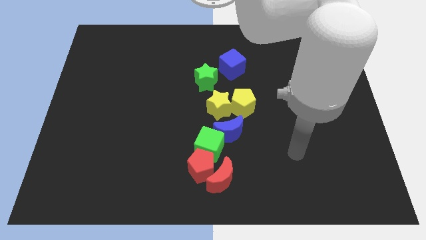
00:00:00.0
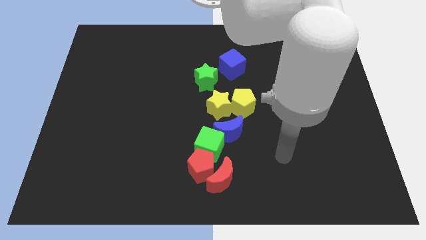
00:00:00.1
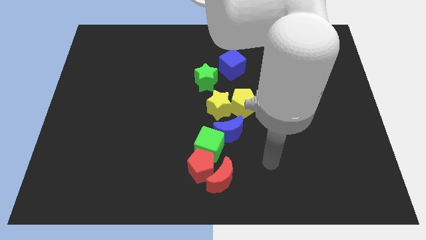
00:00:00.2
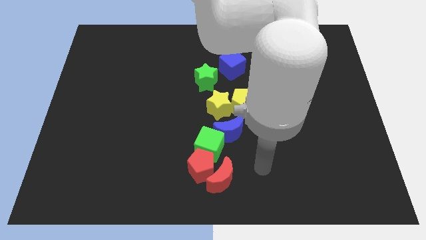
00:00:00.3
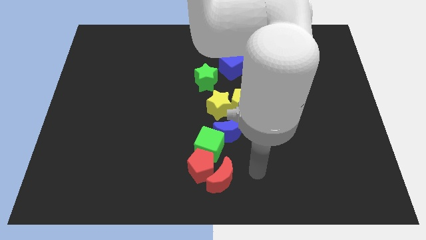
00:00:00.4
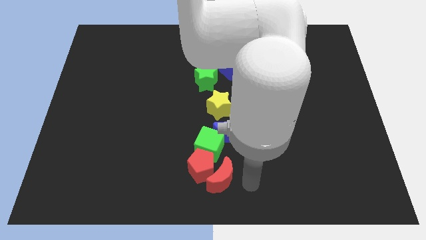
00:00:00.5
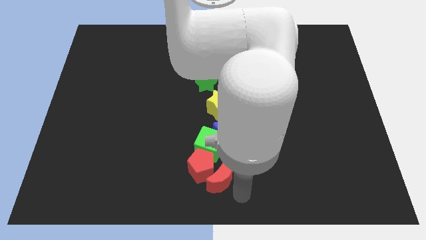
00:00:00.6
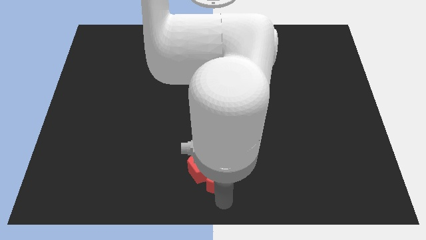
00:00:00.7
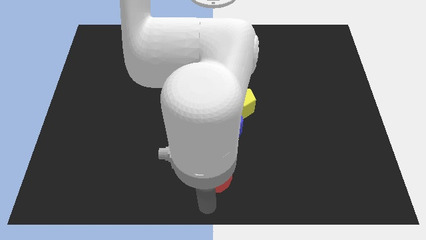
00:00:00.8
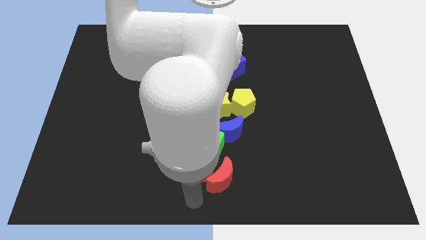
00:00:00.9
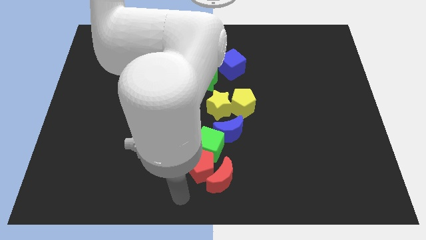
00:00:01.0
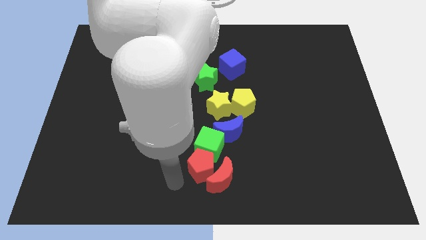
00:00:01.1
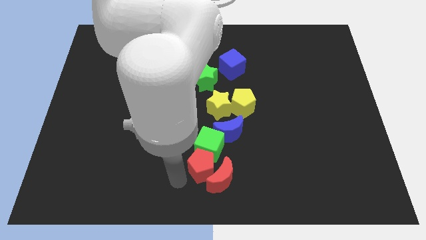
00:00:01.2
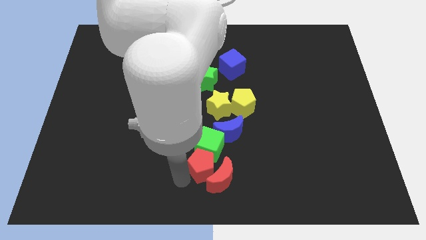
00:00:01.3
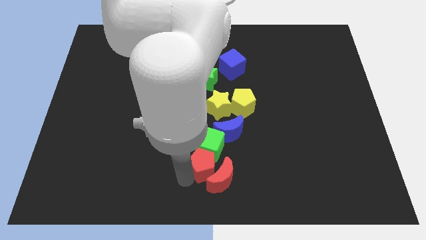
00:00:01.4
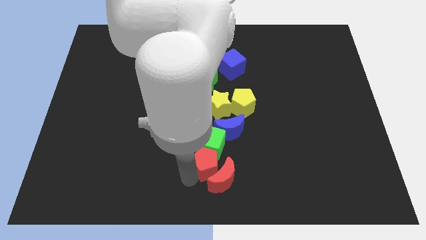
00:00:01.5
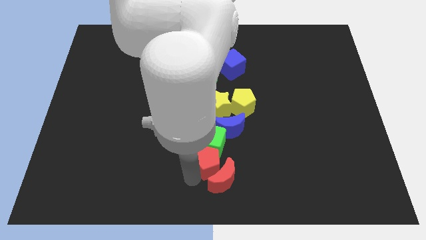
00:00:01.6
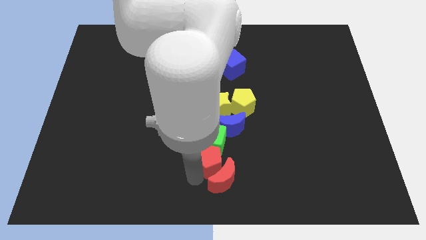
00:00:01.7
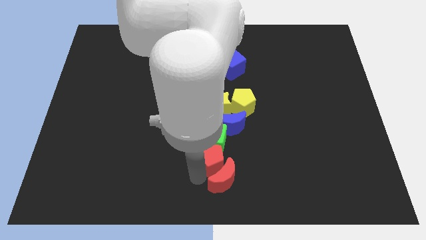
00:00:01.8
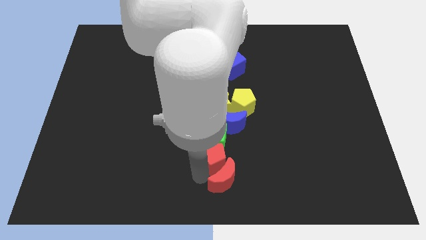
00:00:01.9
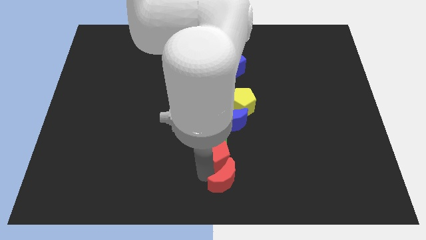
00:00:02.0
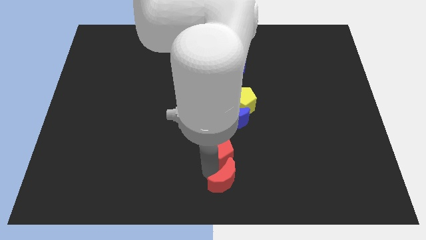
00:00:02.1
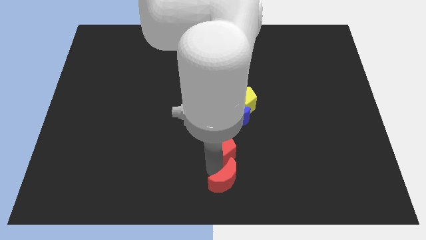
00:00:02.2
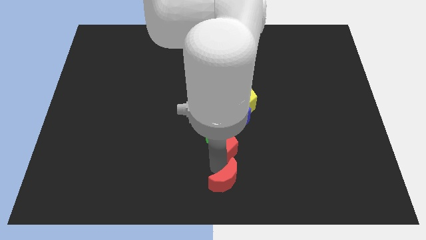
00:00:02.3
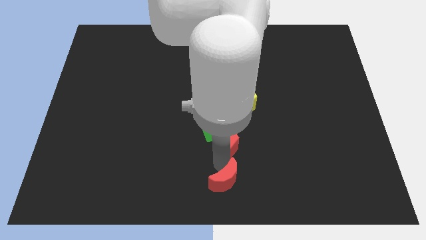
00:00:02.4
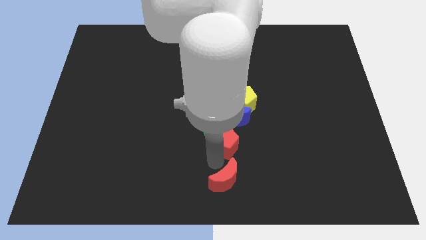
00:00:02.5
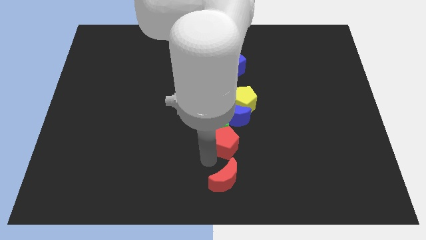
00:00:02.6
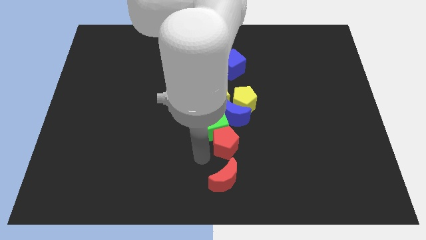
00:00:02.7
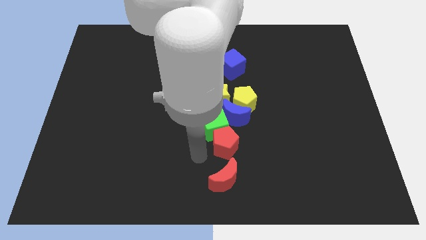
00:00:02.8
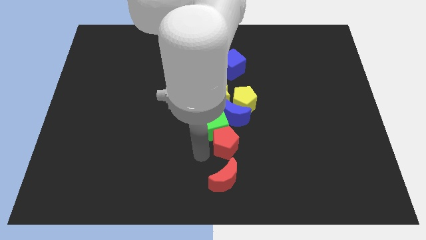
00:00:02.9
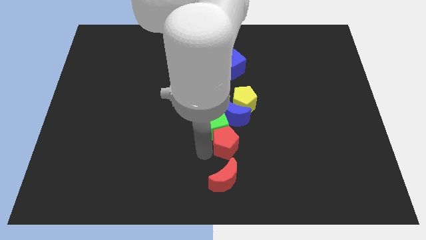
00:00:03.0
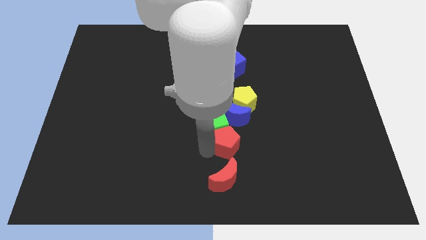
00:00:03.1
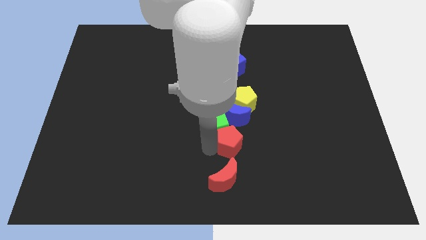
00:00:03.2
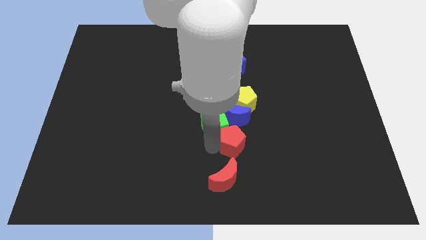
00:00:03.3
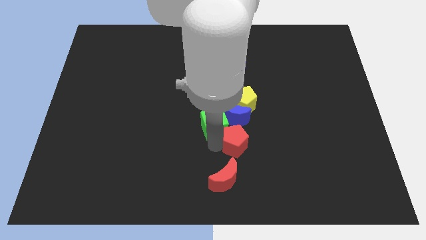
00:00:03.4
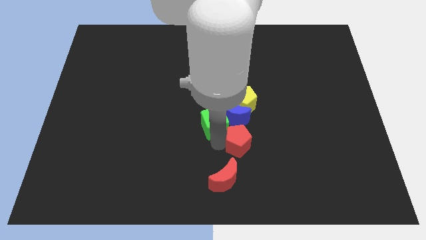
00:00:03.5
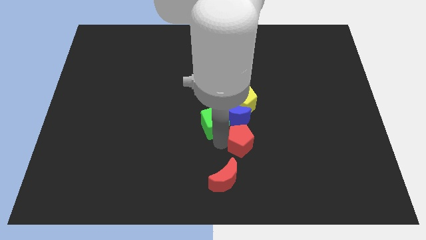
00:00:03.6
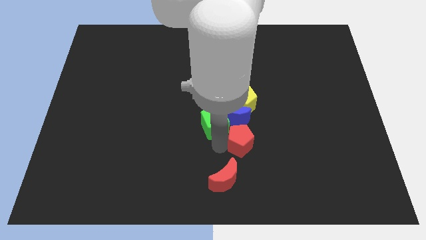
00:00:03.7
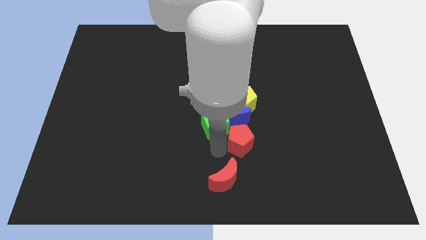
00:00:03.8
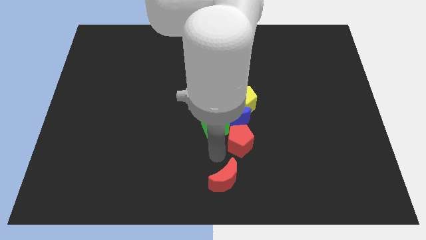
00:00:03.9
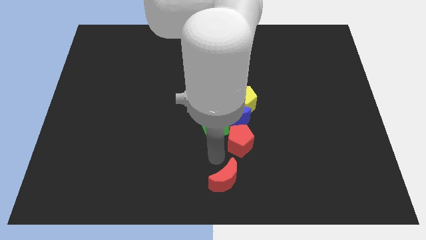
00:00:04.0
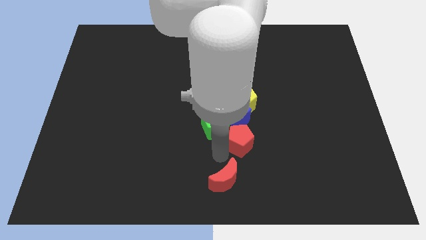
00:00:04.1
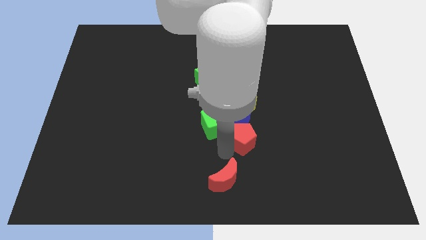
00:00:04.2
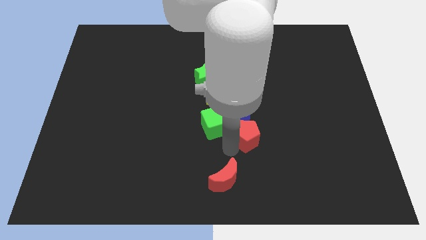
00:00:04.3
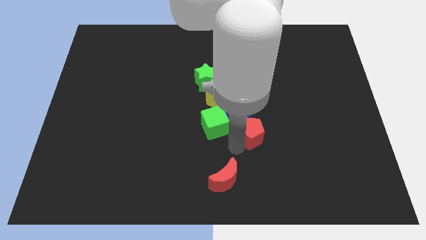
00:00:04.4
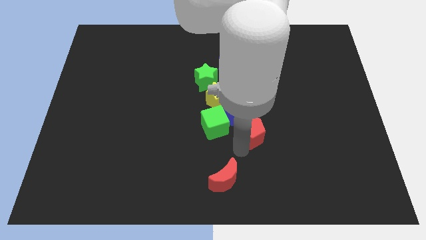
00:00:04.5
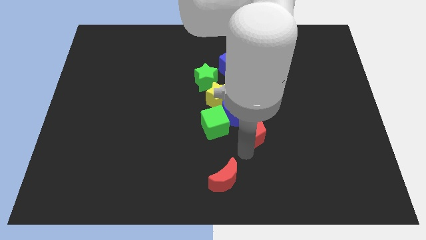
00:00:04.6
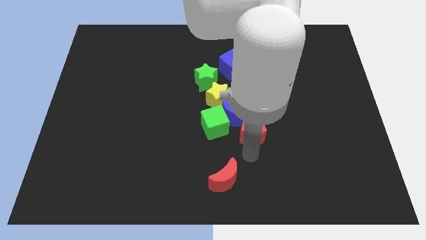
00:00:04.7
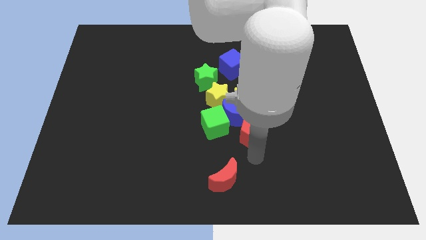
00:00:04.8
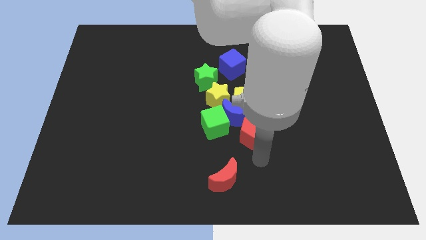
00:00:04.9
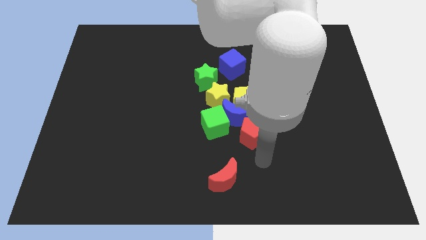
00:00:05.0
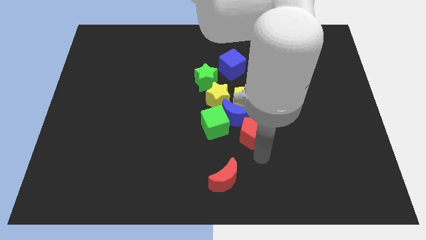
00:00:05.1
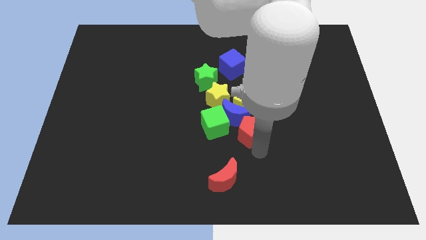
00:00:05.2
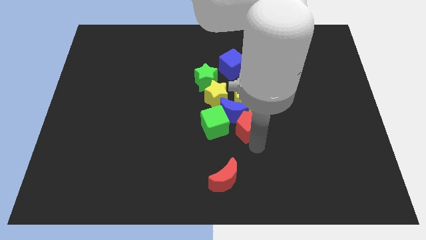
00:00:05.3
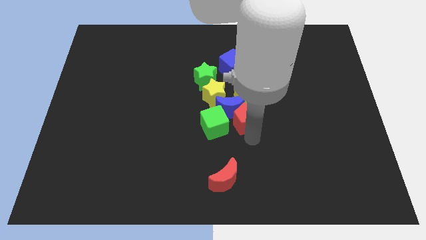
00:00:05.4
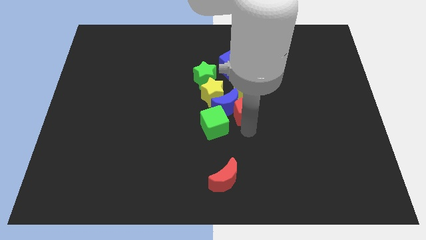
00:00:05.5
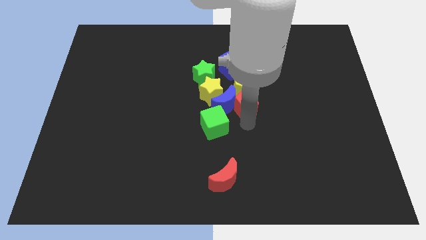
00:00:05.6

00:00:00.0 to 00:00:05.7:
put the red pentagon to the yellow pentagon

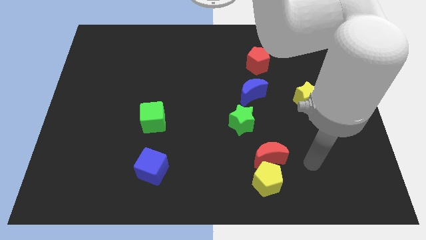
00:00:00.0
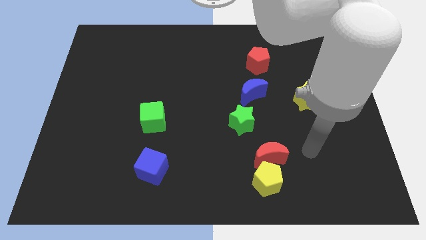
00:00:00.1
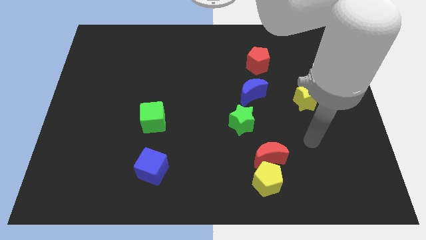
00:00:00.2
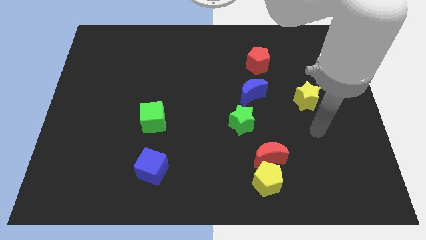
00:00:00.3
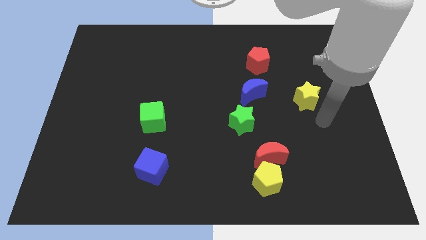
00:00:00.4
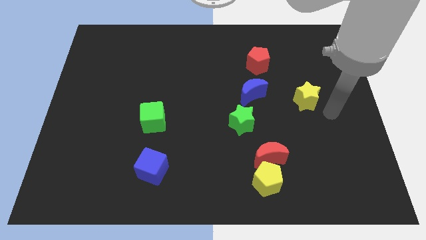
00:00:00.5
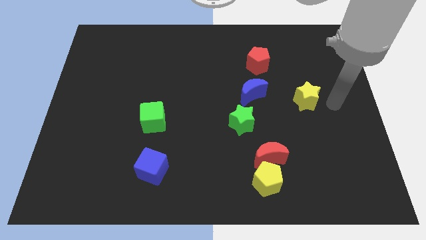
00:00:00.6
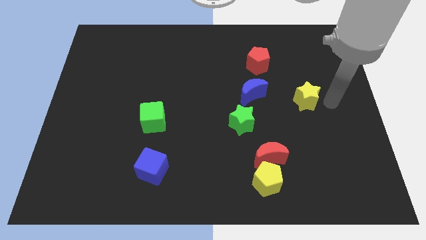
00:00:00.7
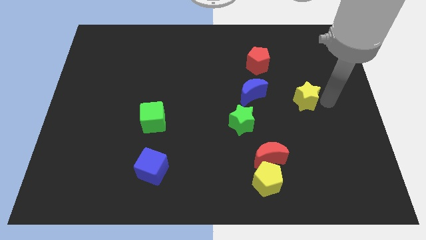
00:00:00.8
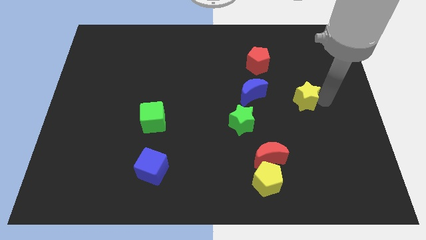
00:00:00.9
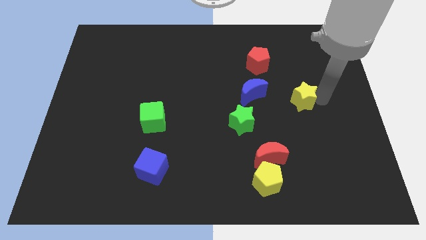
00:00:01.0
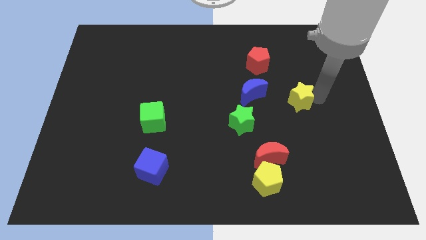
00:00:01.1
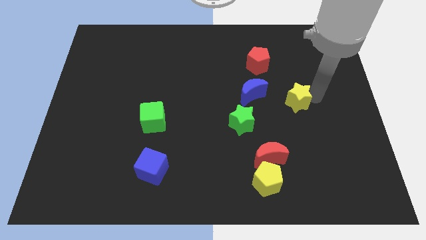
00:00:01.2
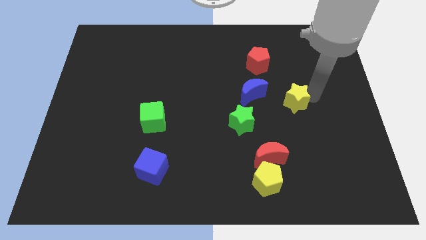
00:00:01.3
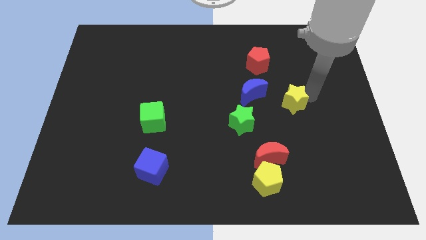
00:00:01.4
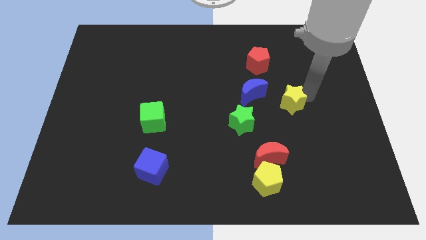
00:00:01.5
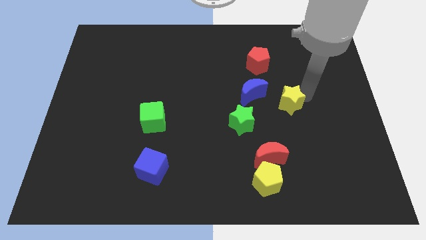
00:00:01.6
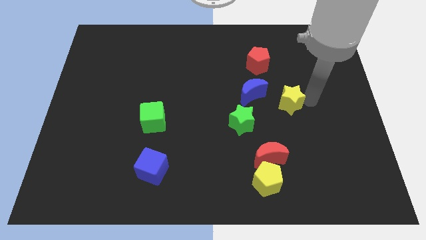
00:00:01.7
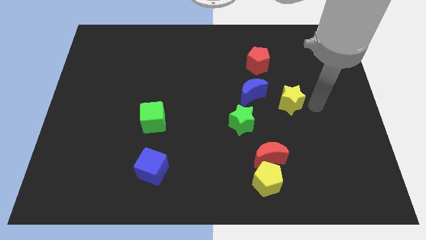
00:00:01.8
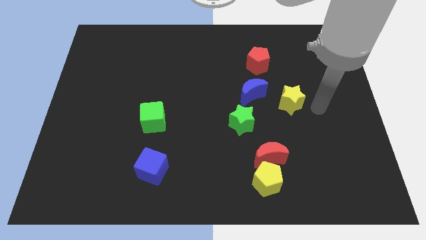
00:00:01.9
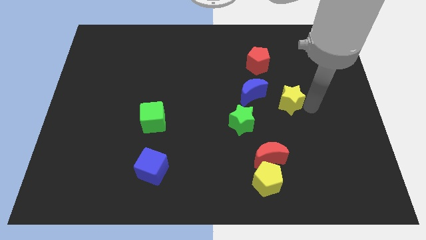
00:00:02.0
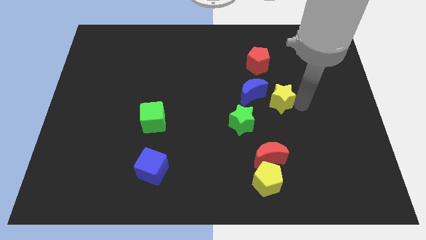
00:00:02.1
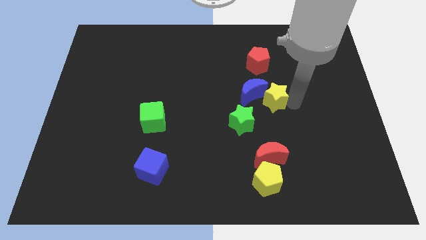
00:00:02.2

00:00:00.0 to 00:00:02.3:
slide the yellow star to the blue moon

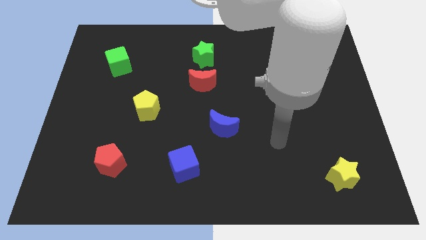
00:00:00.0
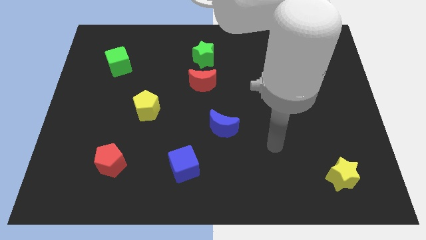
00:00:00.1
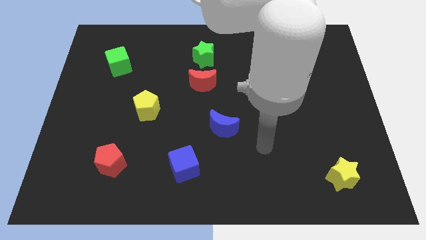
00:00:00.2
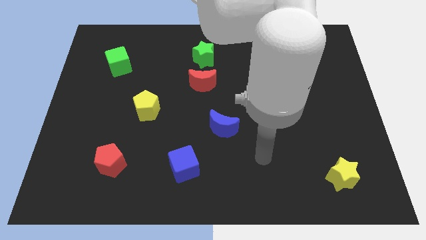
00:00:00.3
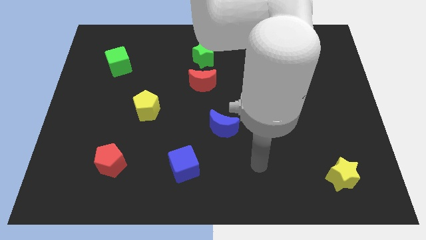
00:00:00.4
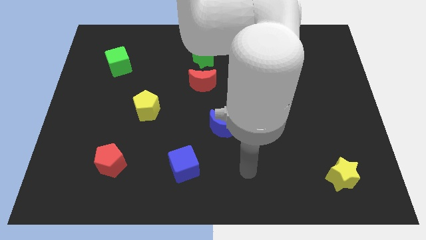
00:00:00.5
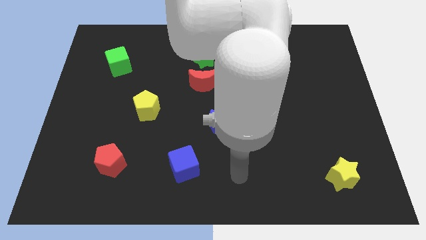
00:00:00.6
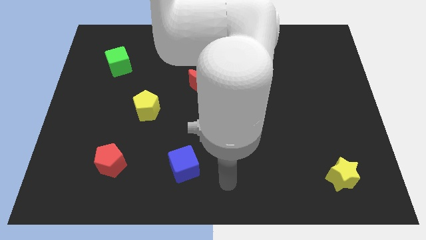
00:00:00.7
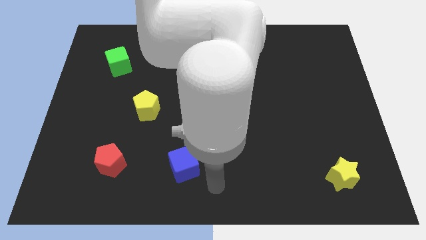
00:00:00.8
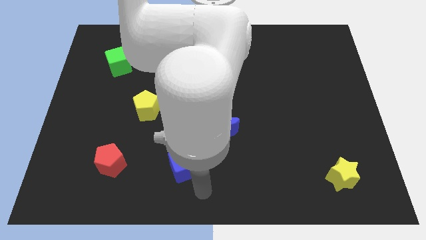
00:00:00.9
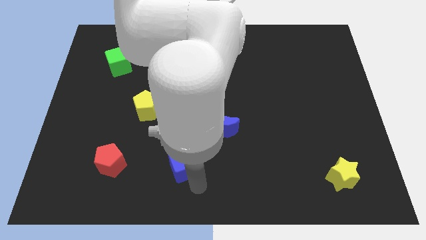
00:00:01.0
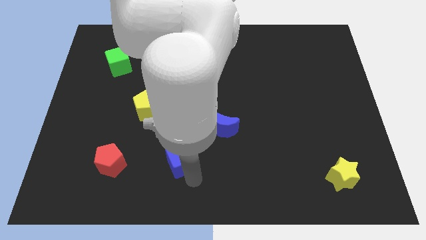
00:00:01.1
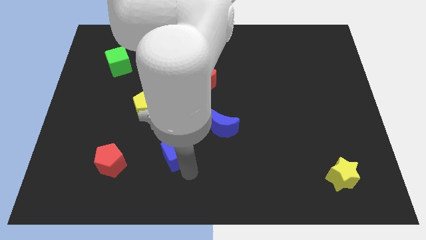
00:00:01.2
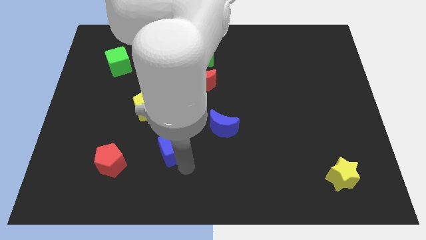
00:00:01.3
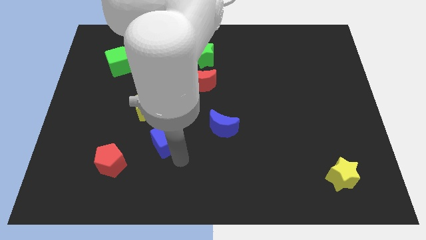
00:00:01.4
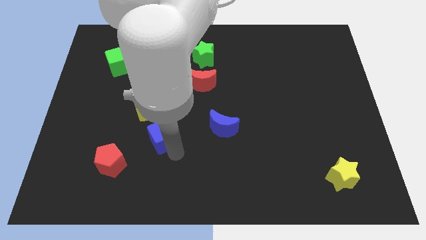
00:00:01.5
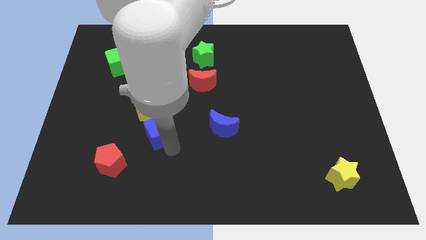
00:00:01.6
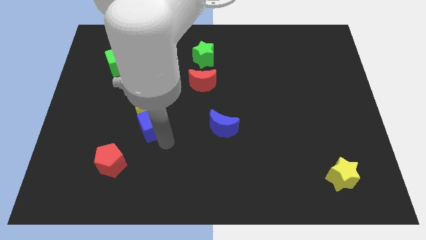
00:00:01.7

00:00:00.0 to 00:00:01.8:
push the blue cube close to the yellow pentagon
